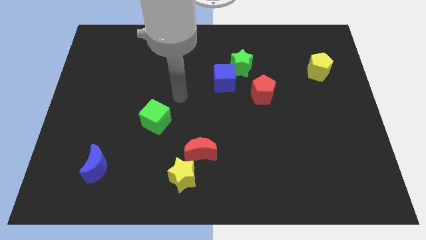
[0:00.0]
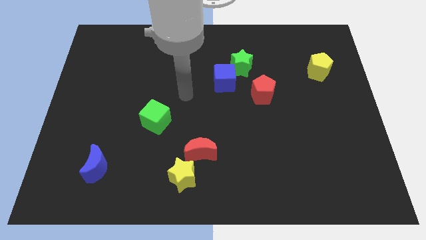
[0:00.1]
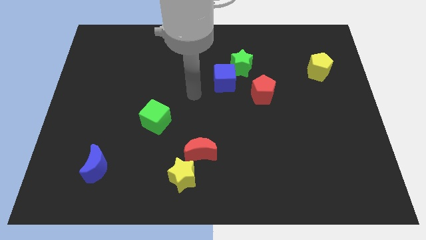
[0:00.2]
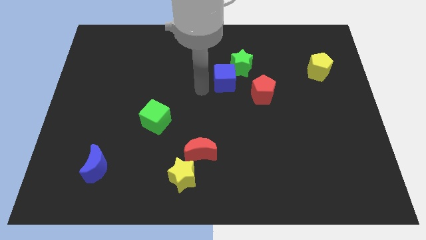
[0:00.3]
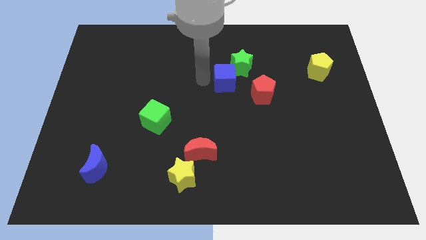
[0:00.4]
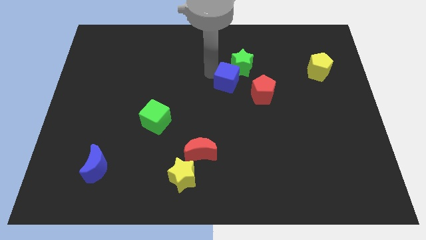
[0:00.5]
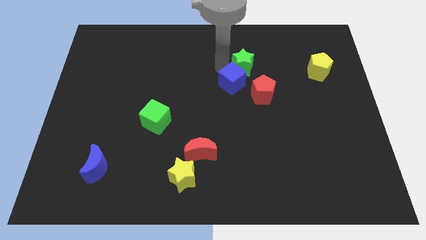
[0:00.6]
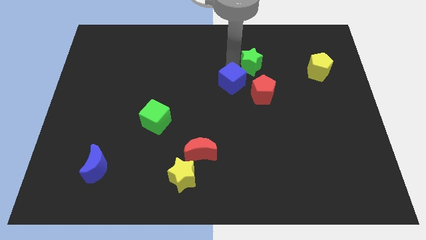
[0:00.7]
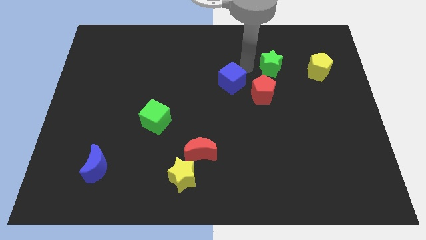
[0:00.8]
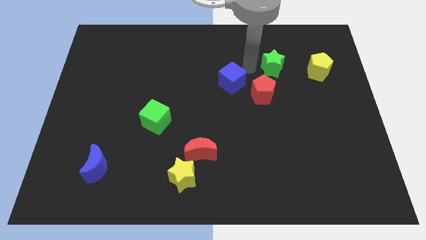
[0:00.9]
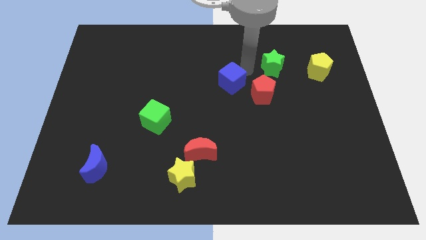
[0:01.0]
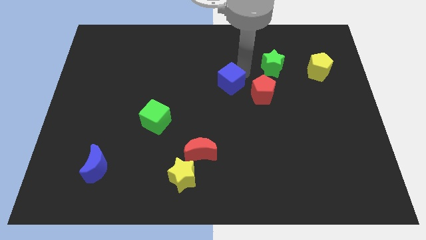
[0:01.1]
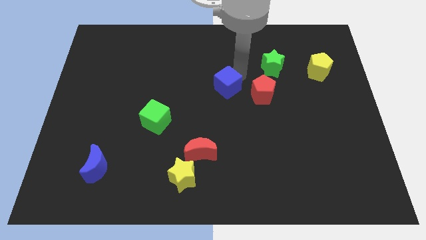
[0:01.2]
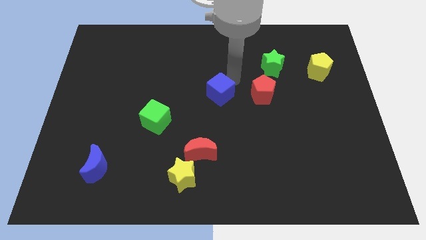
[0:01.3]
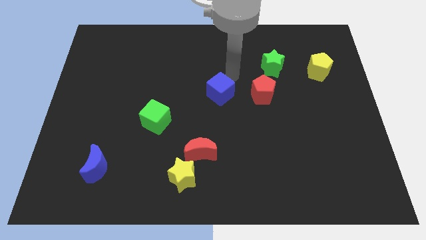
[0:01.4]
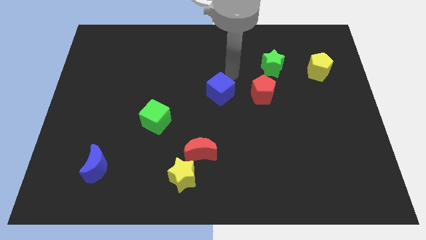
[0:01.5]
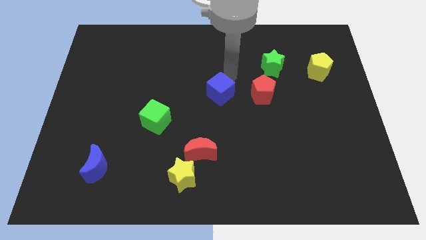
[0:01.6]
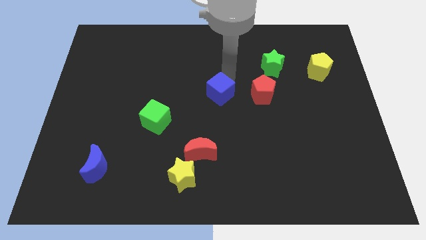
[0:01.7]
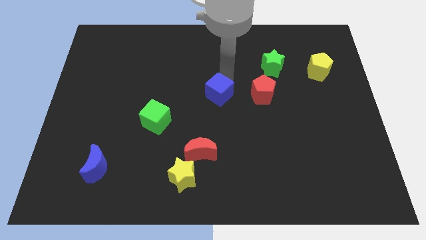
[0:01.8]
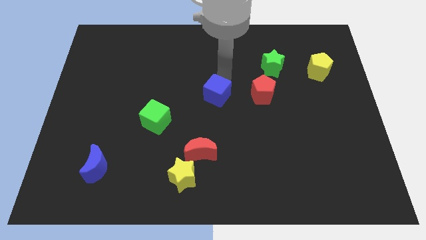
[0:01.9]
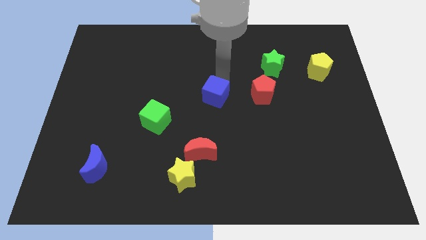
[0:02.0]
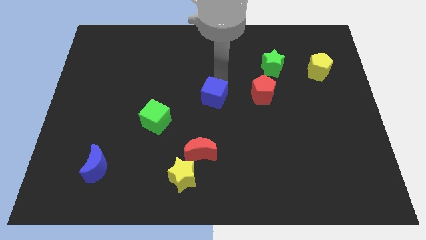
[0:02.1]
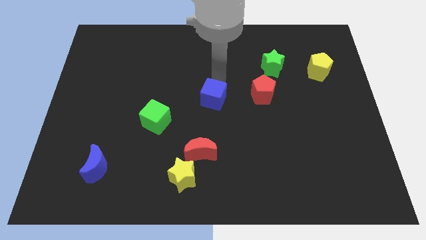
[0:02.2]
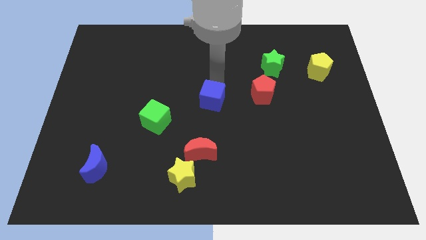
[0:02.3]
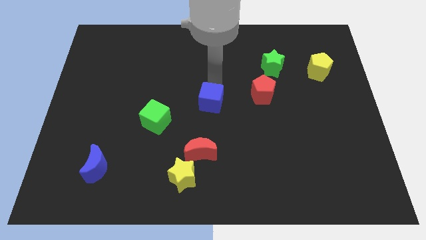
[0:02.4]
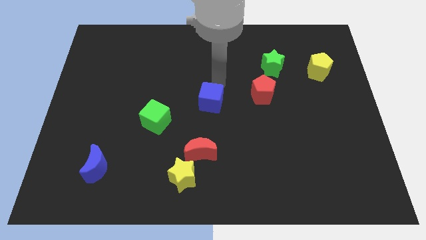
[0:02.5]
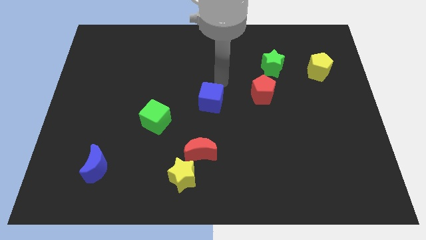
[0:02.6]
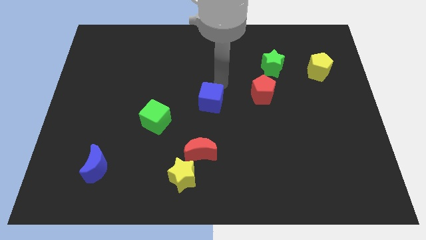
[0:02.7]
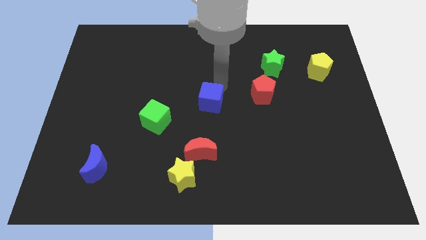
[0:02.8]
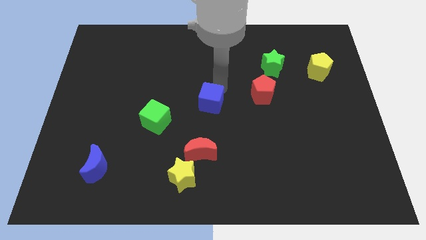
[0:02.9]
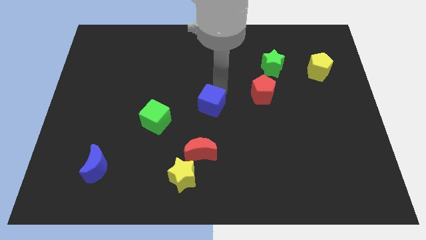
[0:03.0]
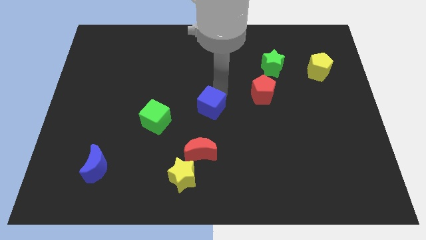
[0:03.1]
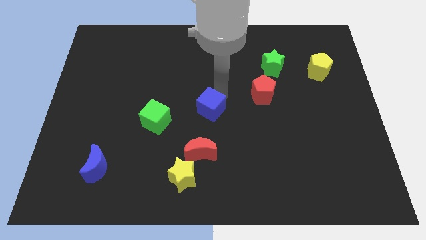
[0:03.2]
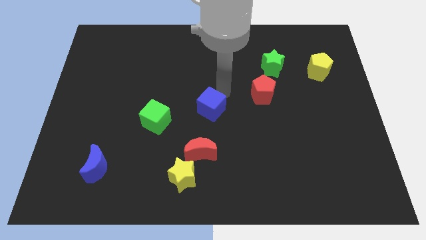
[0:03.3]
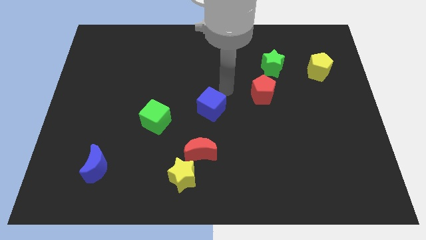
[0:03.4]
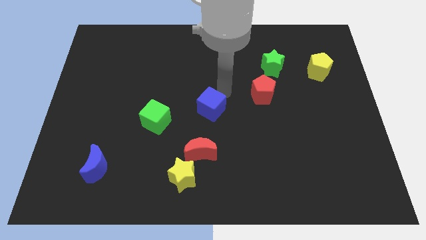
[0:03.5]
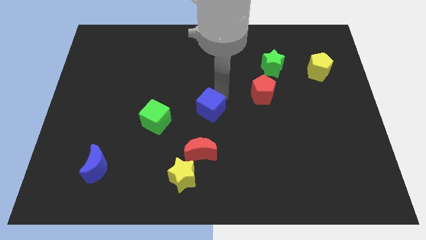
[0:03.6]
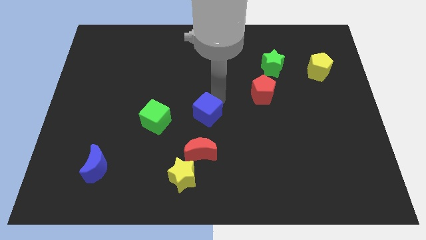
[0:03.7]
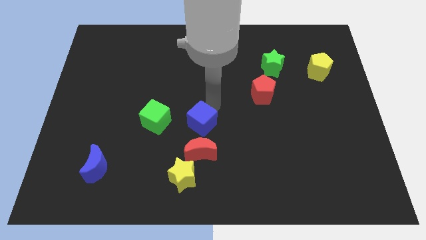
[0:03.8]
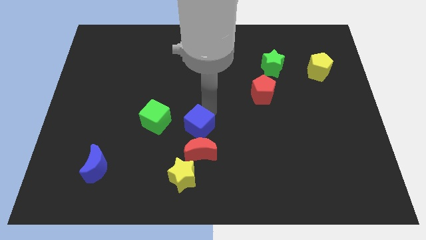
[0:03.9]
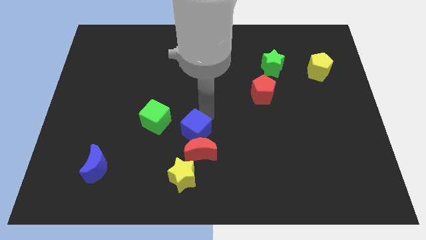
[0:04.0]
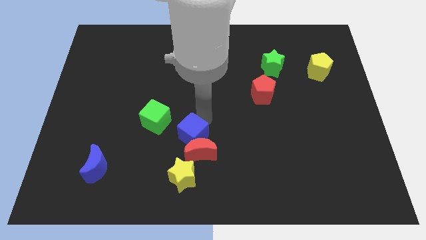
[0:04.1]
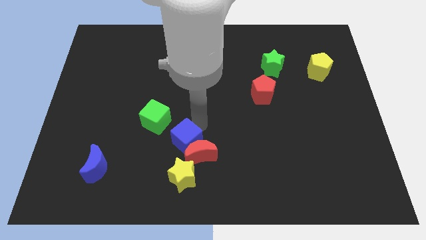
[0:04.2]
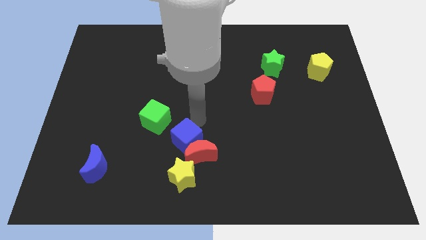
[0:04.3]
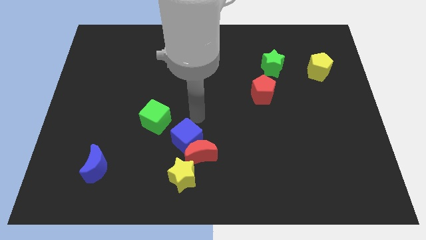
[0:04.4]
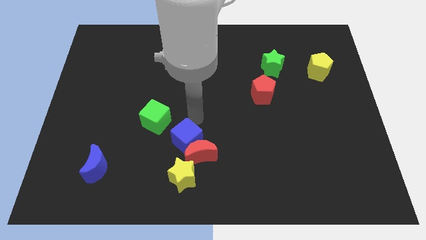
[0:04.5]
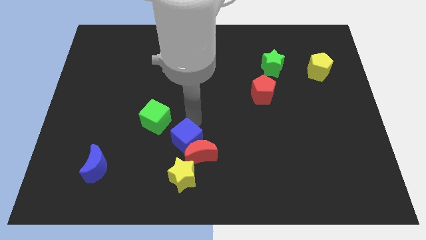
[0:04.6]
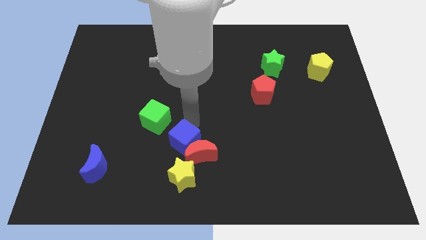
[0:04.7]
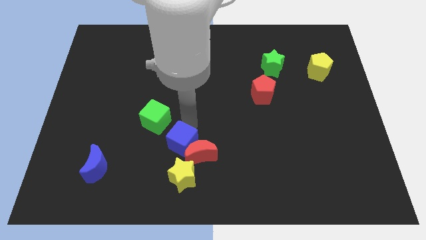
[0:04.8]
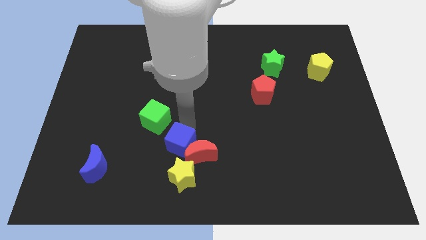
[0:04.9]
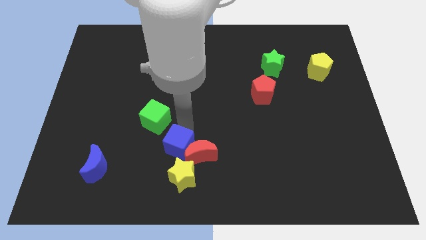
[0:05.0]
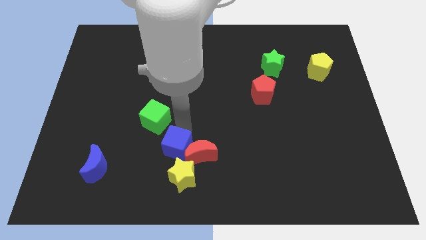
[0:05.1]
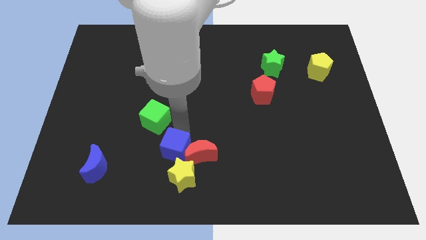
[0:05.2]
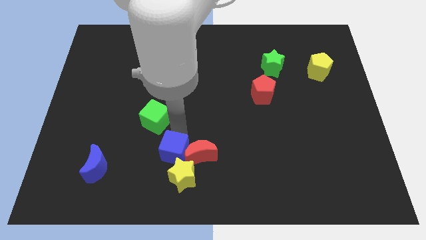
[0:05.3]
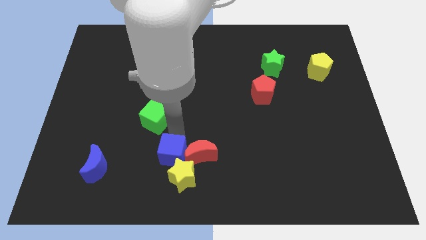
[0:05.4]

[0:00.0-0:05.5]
put the blue cube towards the yellow star

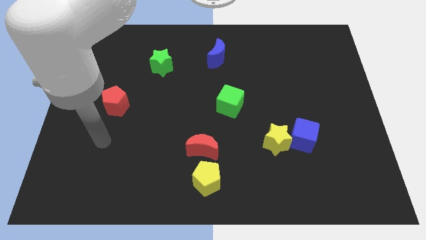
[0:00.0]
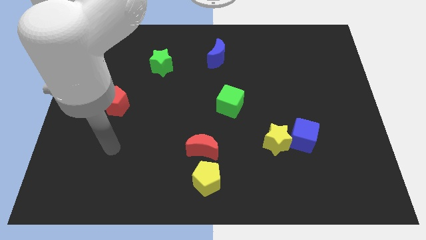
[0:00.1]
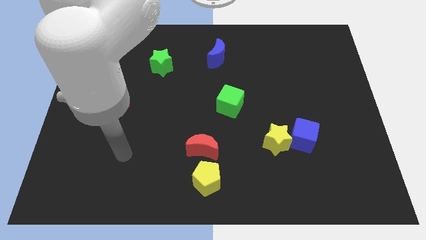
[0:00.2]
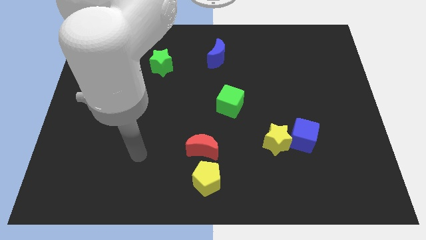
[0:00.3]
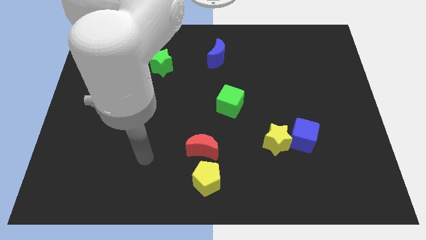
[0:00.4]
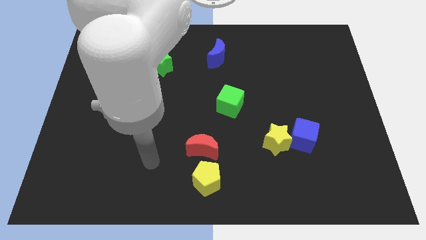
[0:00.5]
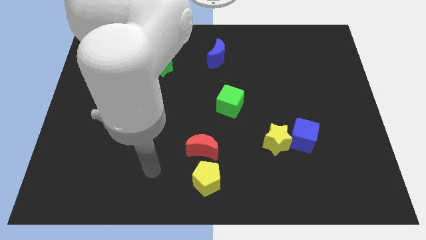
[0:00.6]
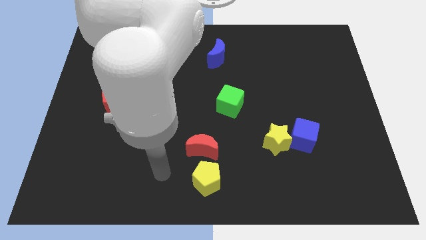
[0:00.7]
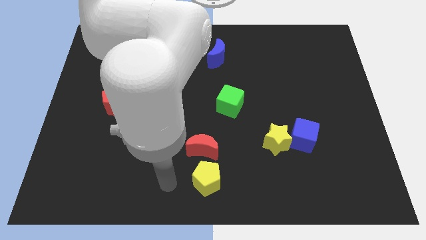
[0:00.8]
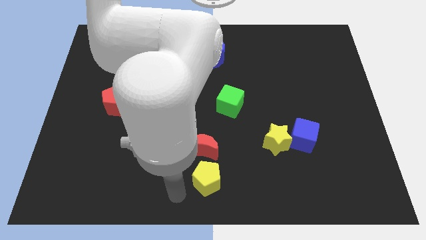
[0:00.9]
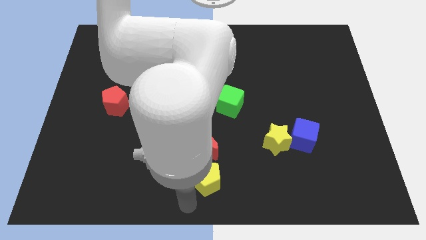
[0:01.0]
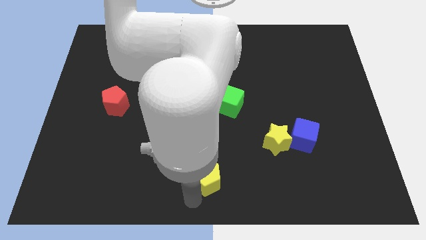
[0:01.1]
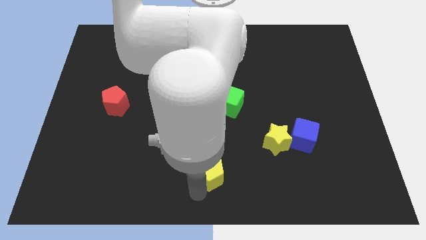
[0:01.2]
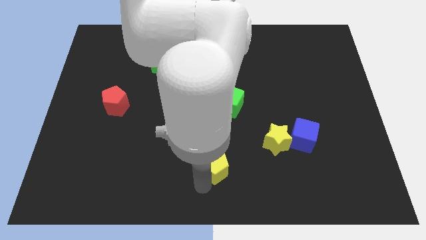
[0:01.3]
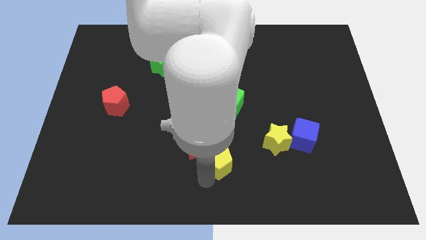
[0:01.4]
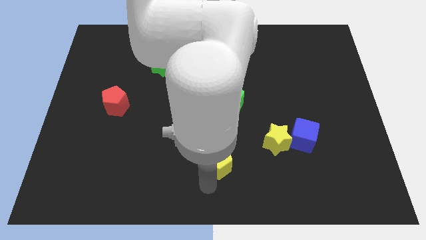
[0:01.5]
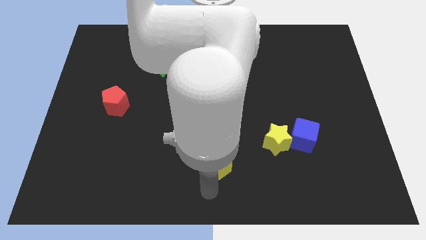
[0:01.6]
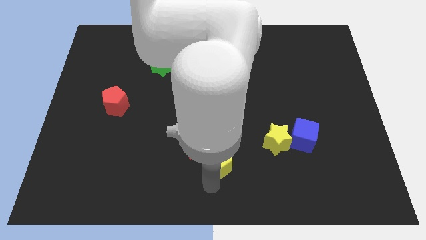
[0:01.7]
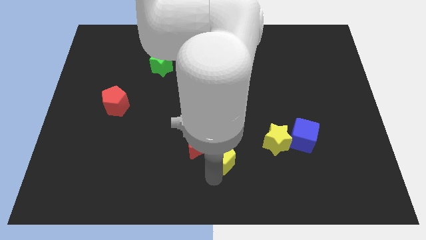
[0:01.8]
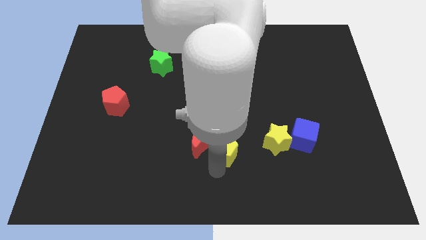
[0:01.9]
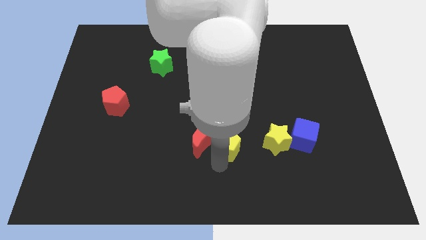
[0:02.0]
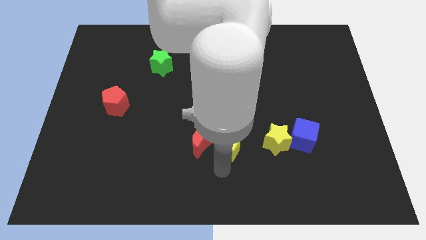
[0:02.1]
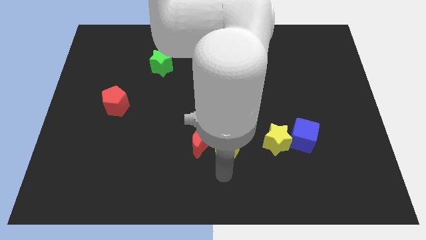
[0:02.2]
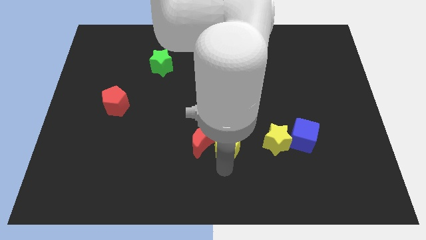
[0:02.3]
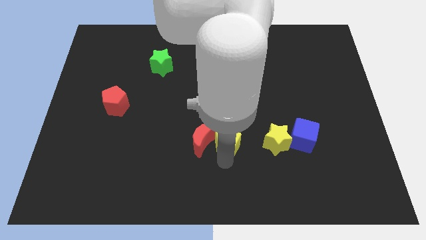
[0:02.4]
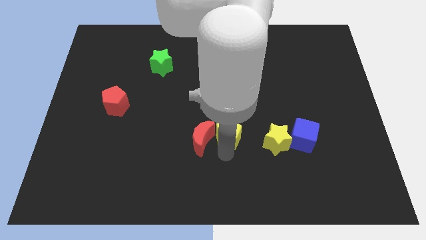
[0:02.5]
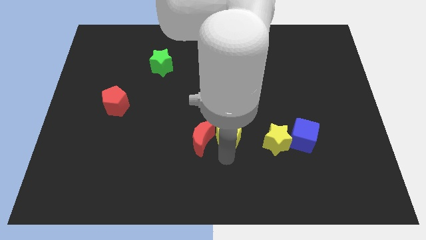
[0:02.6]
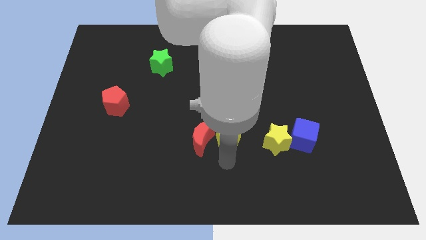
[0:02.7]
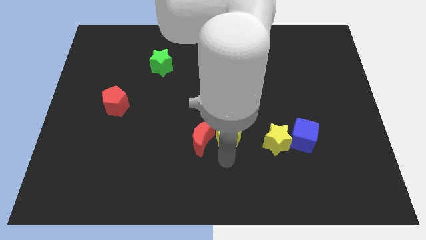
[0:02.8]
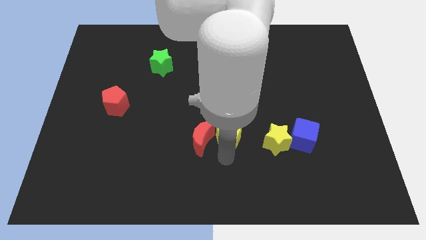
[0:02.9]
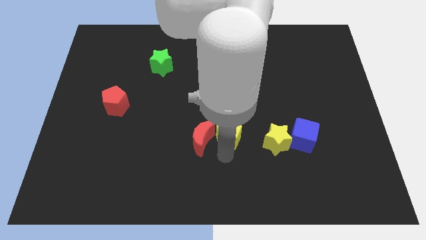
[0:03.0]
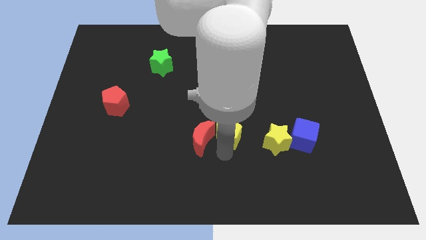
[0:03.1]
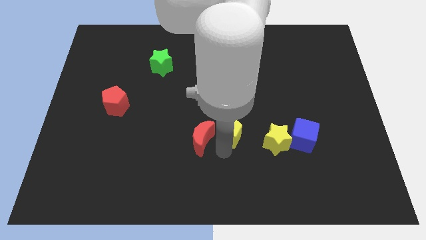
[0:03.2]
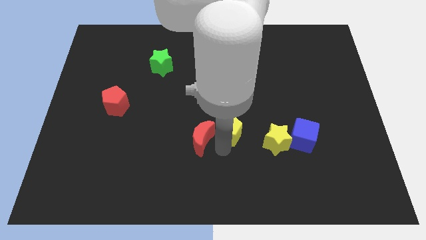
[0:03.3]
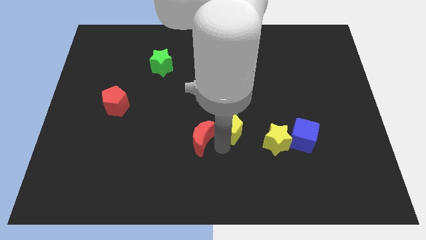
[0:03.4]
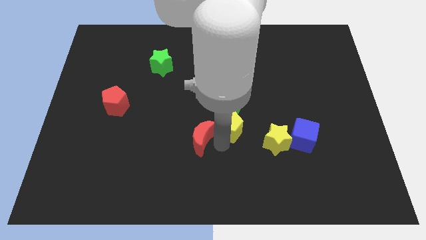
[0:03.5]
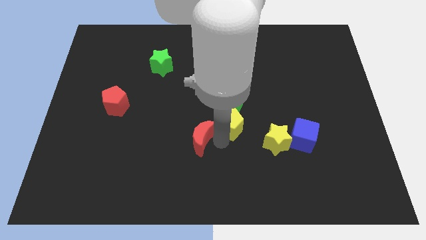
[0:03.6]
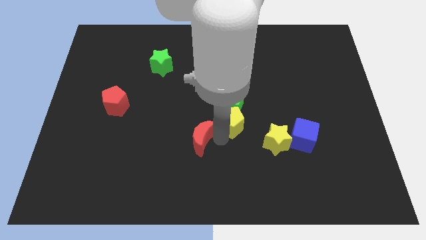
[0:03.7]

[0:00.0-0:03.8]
put the yellow pentagon close to the green cube
